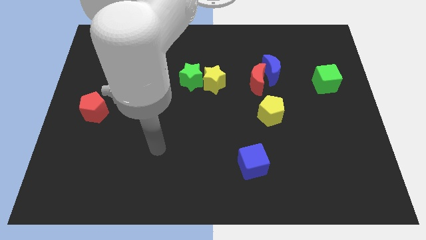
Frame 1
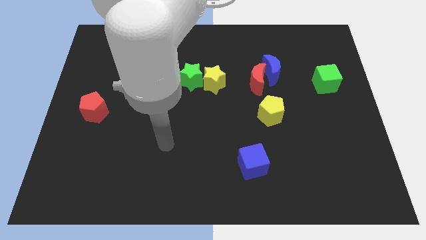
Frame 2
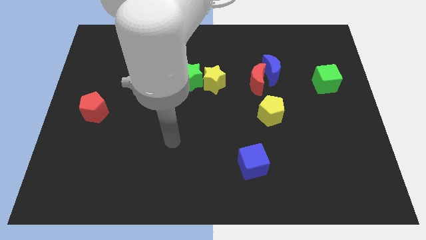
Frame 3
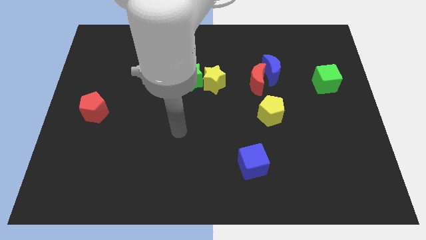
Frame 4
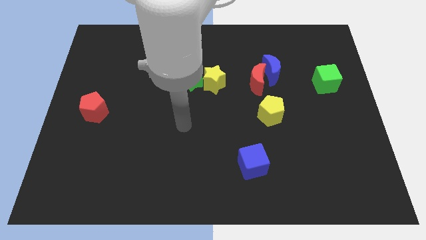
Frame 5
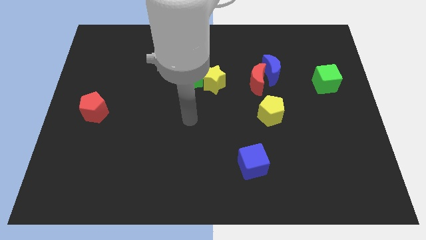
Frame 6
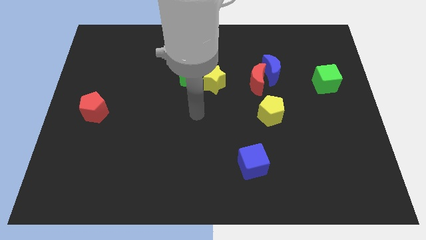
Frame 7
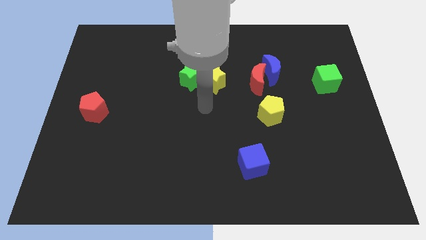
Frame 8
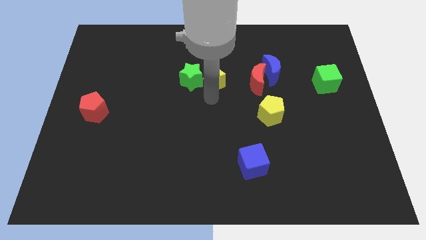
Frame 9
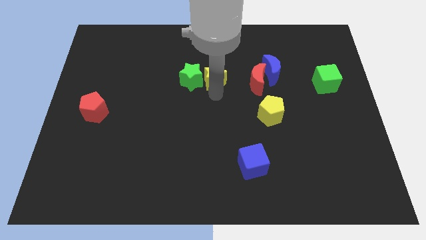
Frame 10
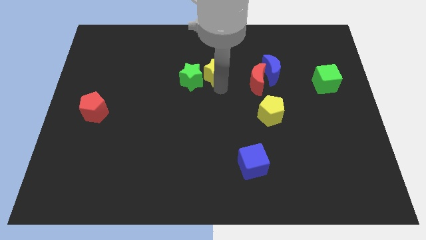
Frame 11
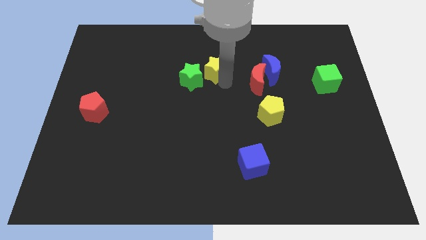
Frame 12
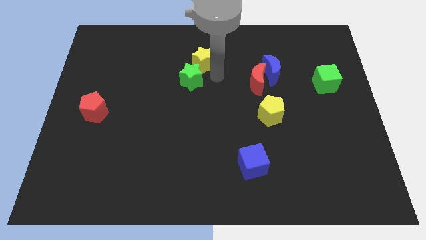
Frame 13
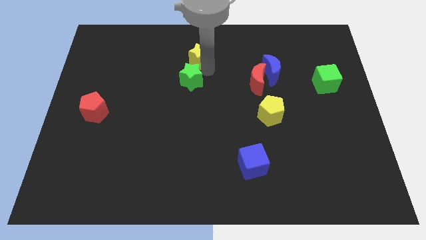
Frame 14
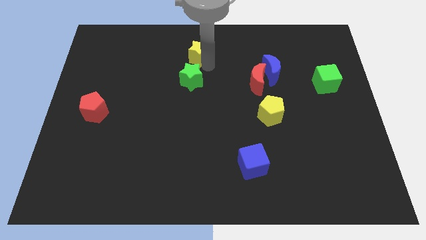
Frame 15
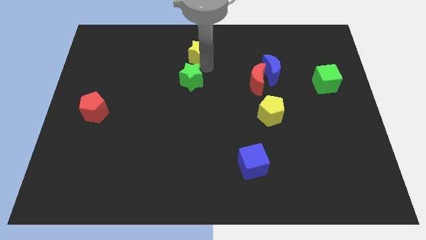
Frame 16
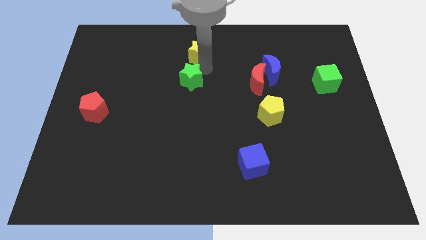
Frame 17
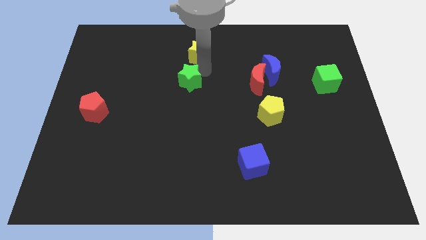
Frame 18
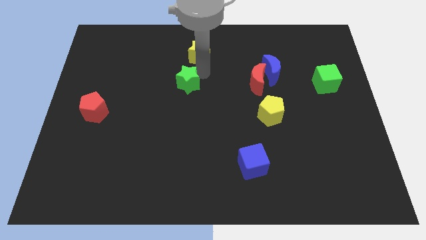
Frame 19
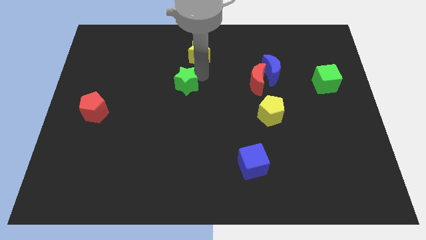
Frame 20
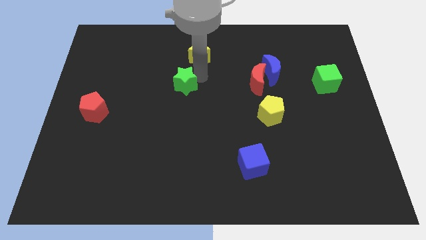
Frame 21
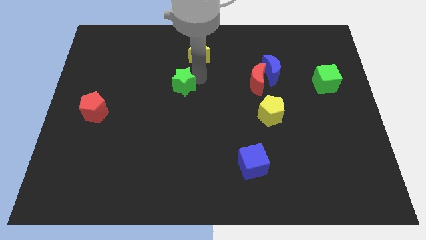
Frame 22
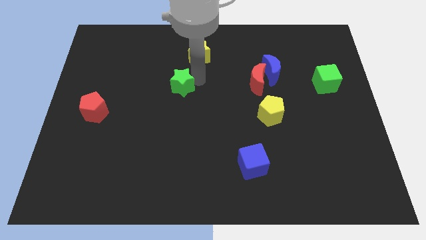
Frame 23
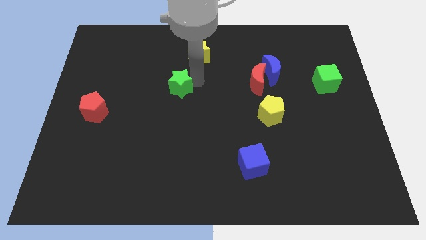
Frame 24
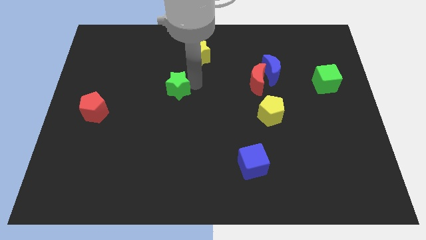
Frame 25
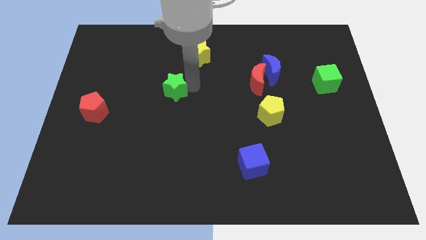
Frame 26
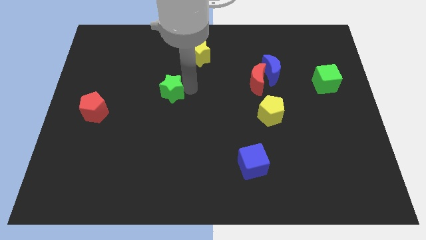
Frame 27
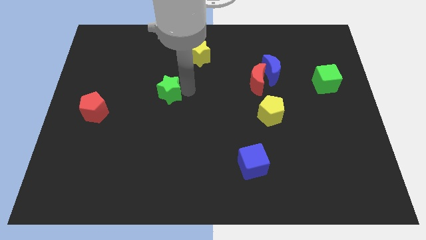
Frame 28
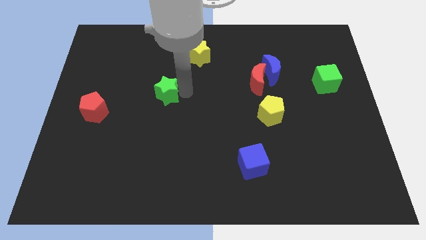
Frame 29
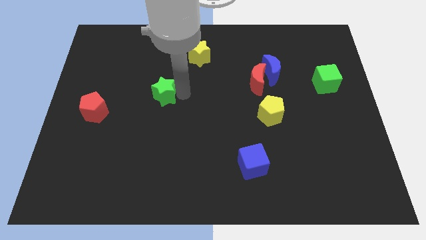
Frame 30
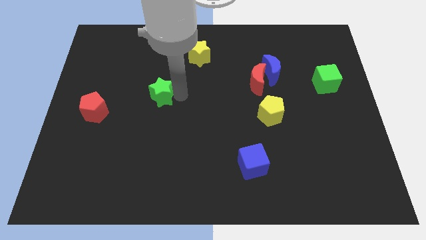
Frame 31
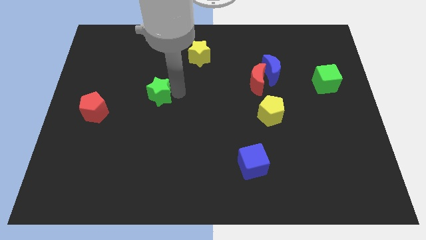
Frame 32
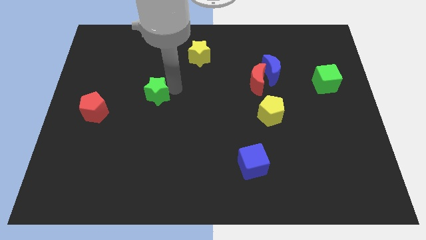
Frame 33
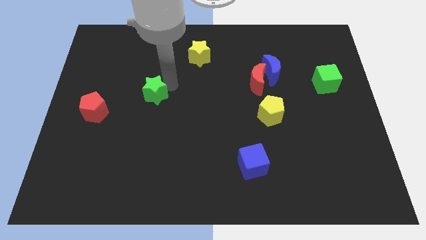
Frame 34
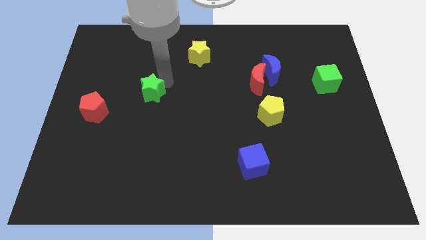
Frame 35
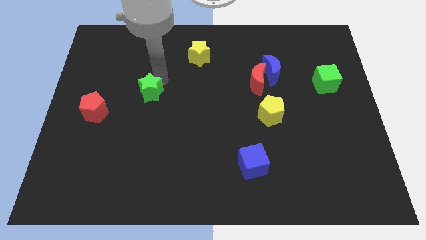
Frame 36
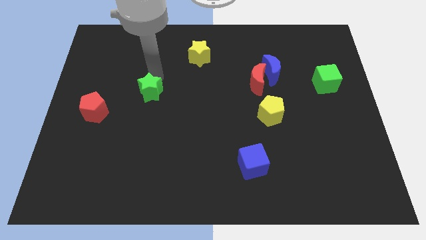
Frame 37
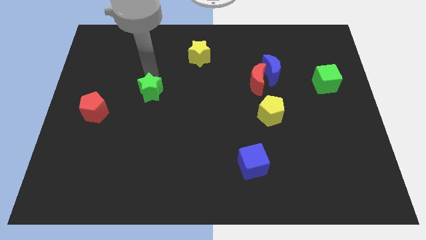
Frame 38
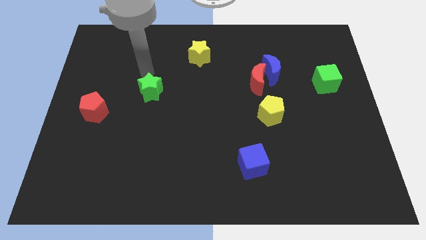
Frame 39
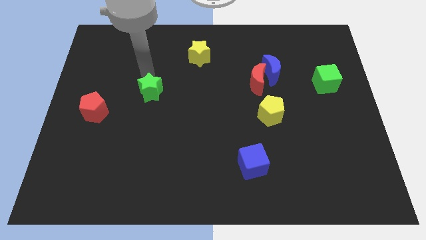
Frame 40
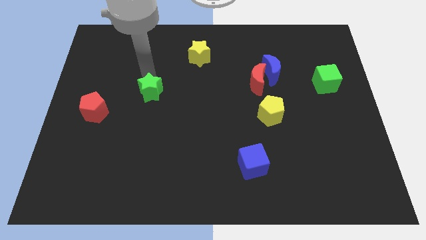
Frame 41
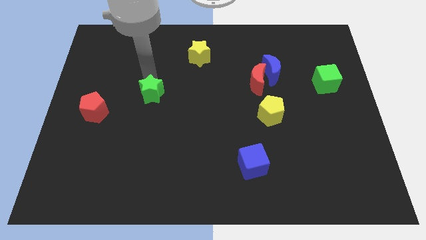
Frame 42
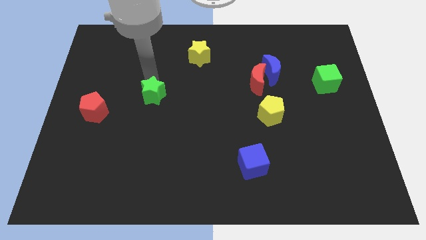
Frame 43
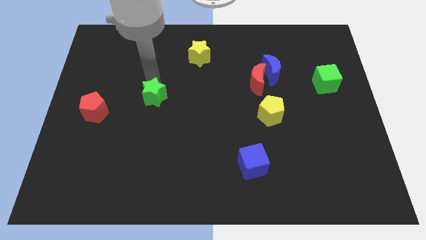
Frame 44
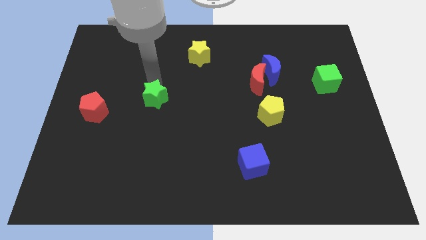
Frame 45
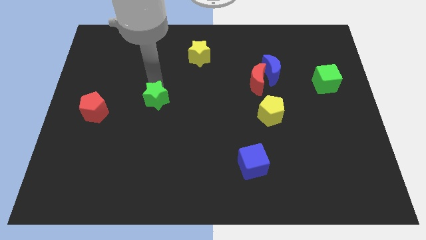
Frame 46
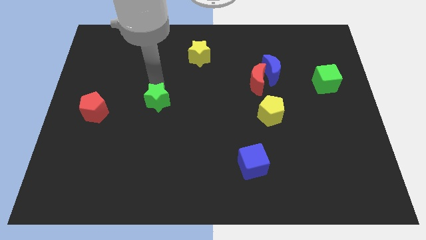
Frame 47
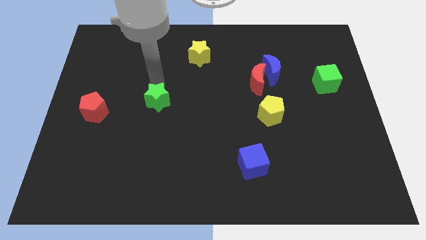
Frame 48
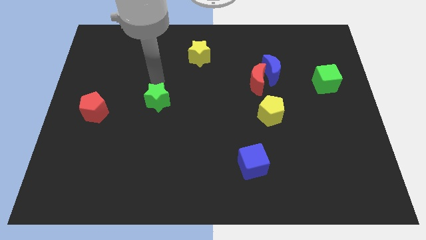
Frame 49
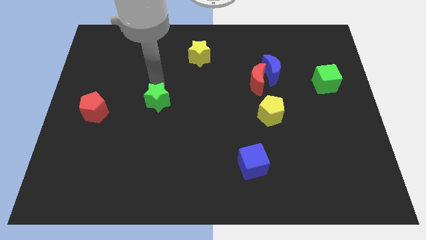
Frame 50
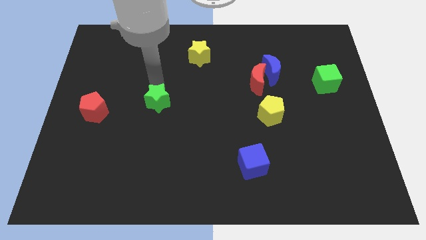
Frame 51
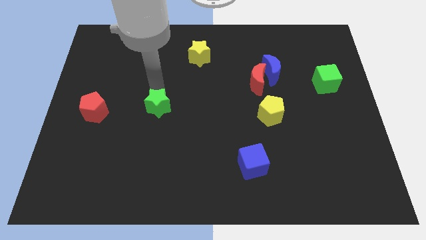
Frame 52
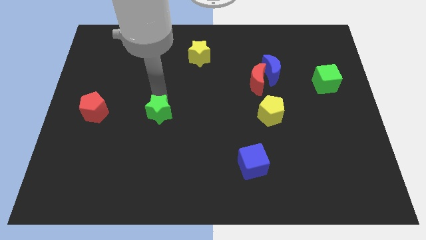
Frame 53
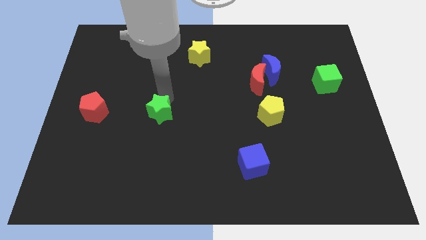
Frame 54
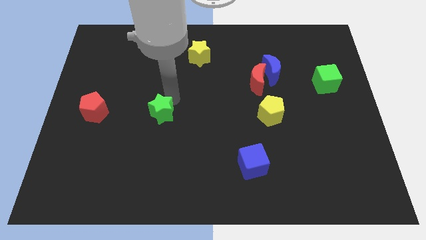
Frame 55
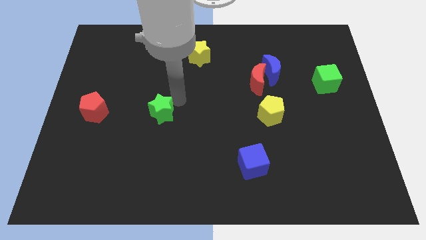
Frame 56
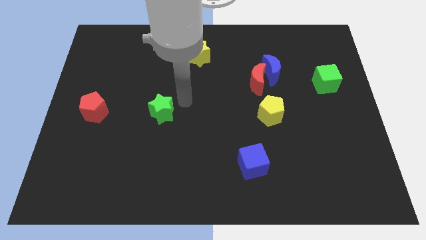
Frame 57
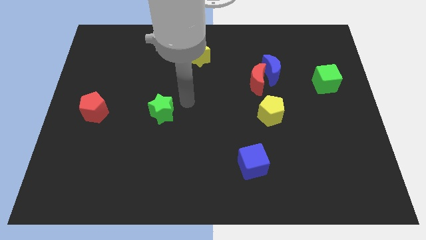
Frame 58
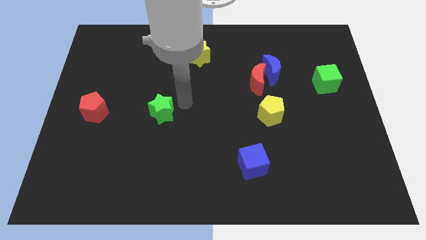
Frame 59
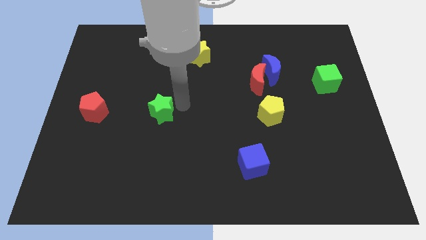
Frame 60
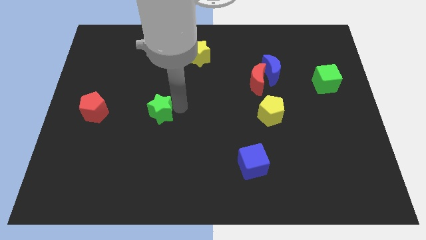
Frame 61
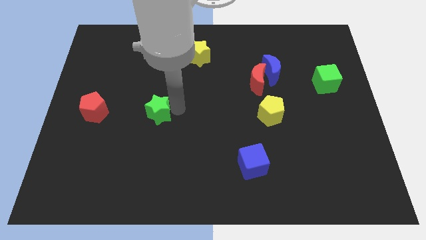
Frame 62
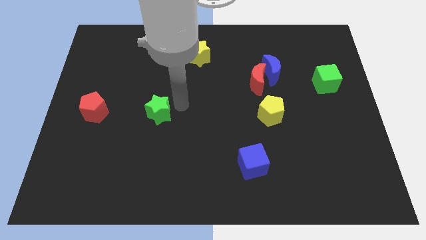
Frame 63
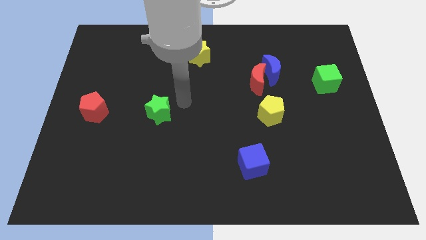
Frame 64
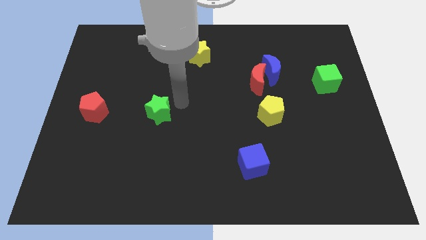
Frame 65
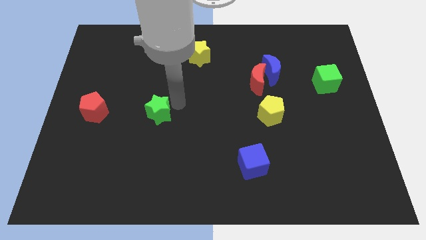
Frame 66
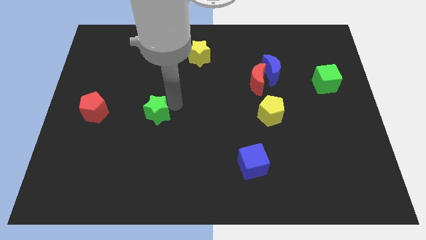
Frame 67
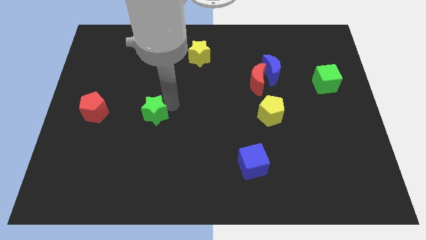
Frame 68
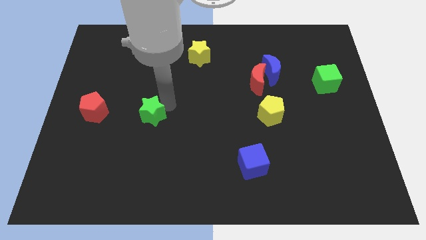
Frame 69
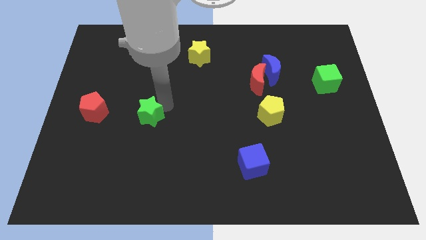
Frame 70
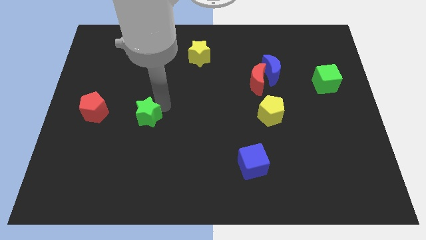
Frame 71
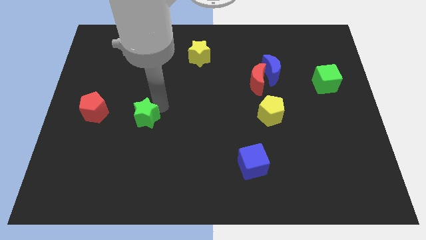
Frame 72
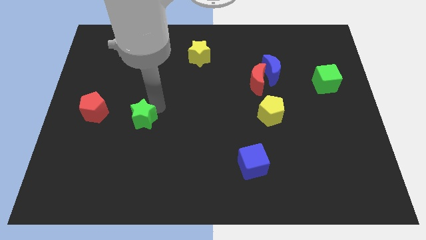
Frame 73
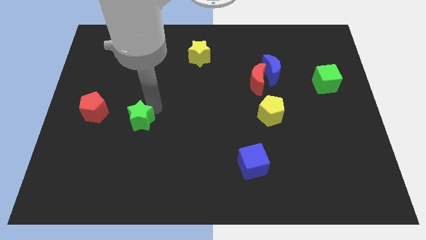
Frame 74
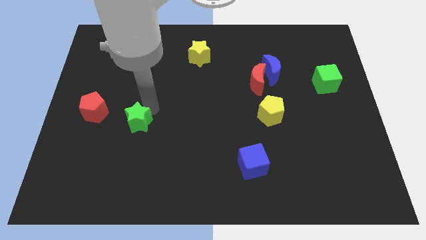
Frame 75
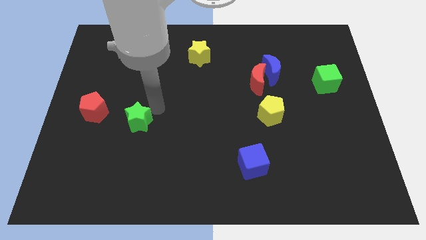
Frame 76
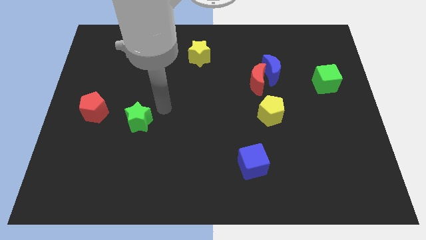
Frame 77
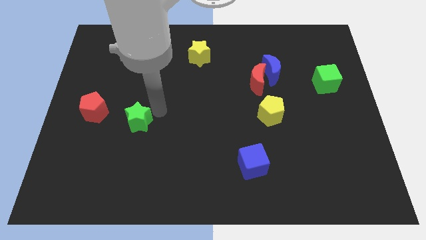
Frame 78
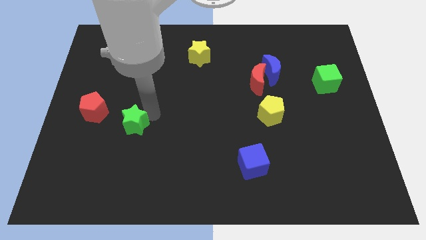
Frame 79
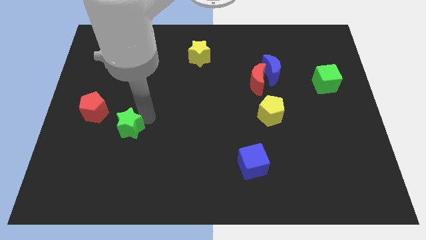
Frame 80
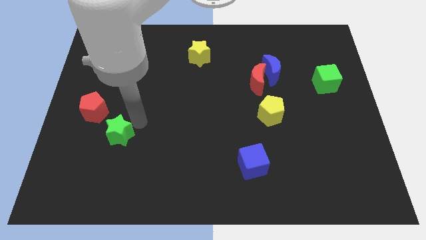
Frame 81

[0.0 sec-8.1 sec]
slide the green star downwards and left
